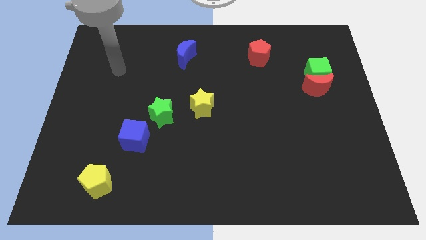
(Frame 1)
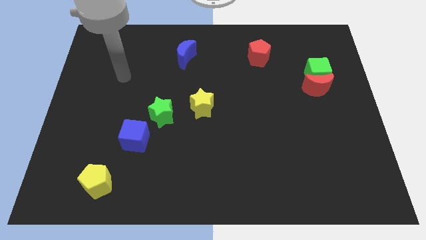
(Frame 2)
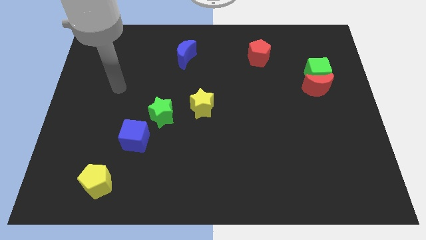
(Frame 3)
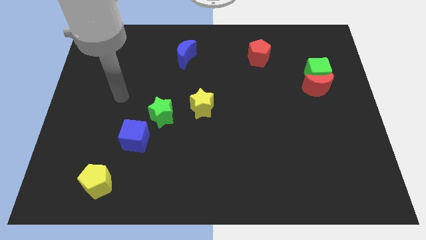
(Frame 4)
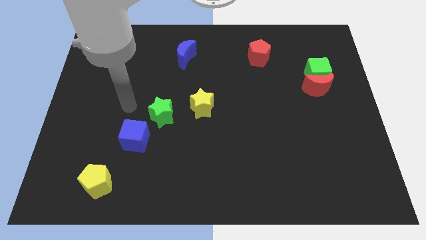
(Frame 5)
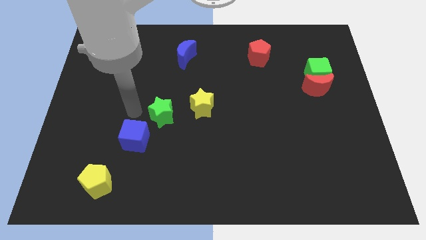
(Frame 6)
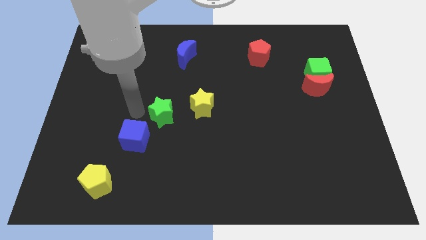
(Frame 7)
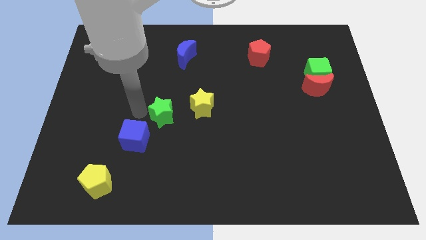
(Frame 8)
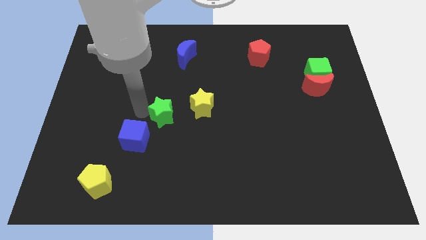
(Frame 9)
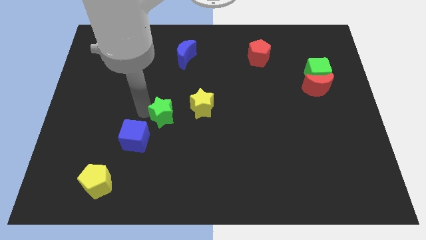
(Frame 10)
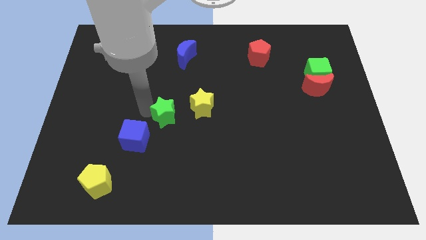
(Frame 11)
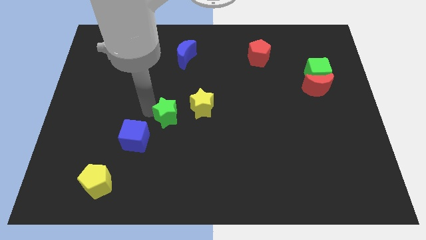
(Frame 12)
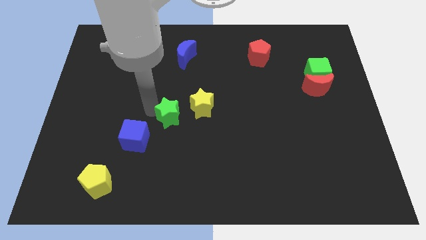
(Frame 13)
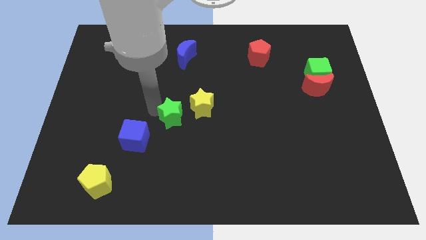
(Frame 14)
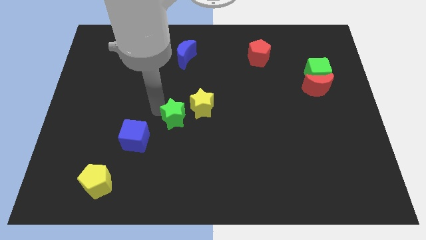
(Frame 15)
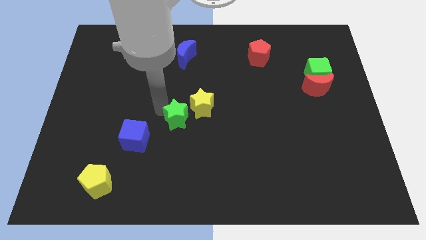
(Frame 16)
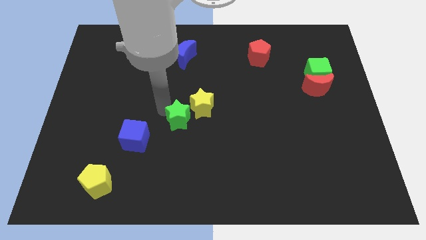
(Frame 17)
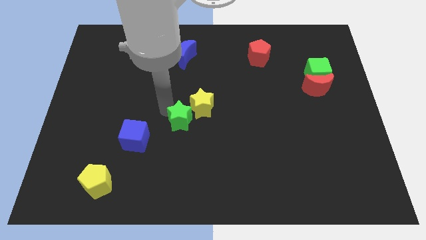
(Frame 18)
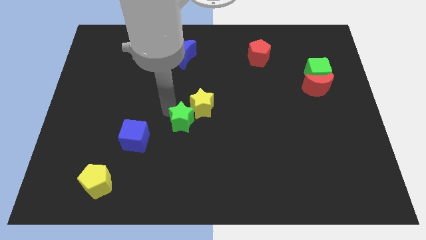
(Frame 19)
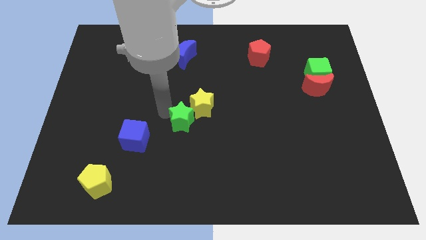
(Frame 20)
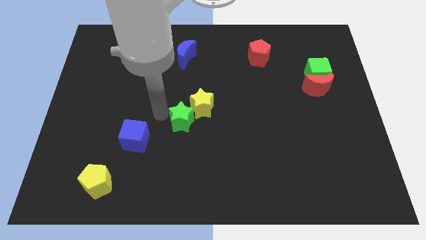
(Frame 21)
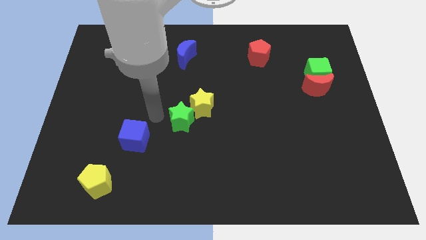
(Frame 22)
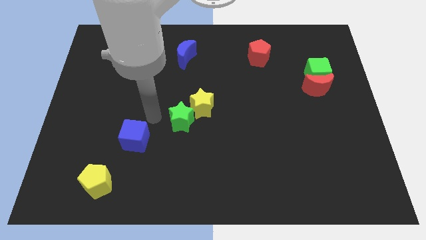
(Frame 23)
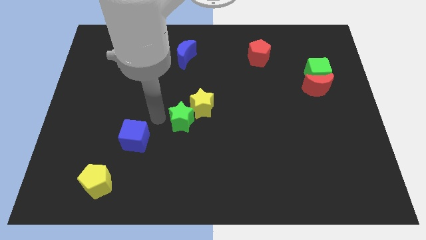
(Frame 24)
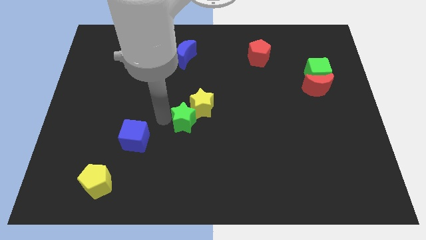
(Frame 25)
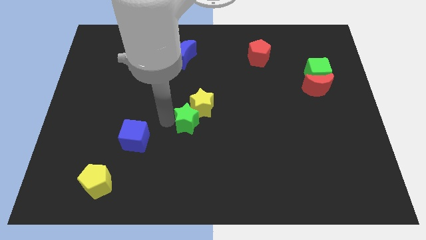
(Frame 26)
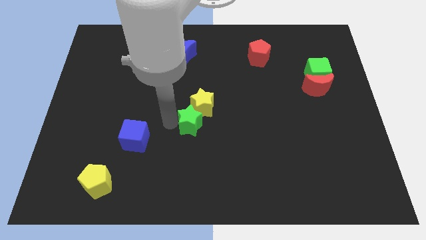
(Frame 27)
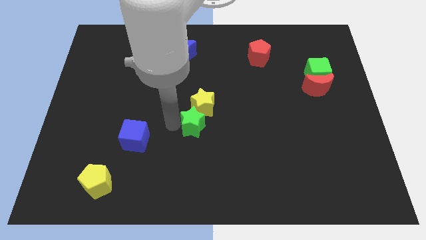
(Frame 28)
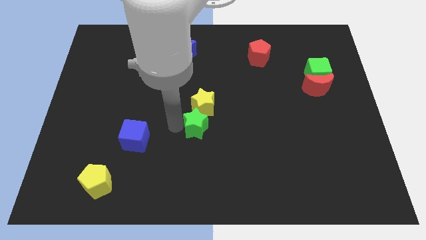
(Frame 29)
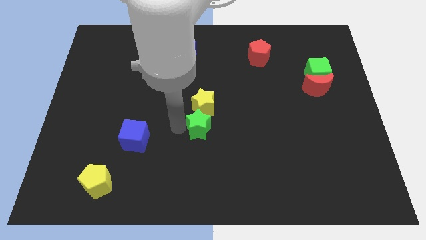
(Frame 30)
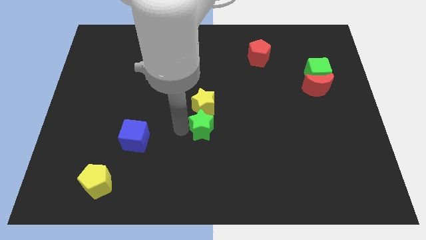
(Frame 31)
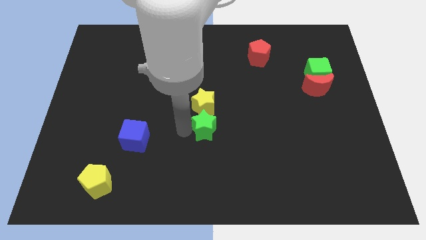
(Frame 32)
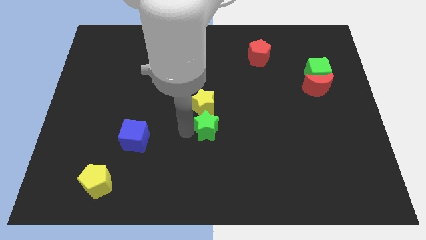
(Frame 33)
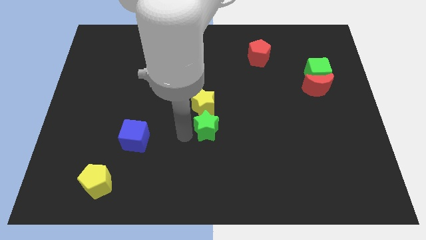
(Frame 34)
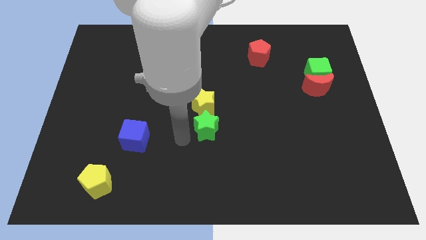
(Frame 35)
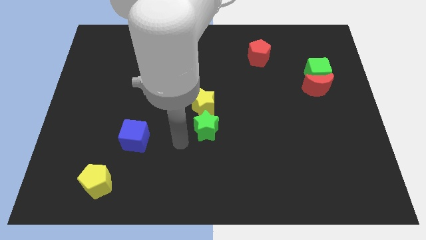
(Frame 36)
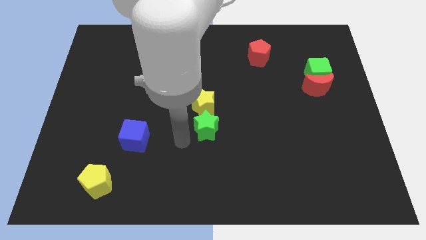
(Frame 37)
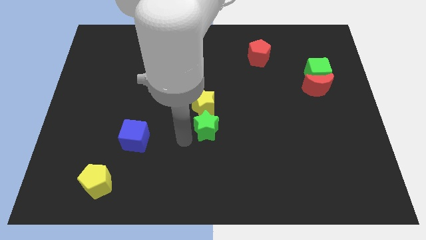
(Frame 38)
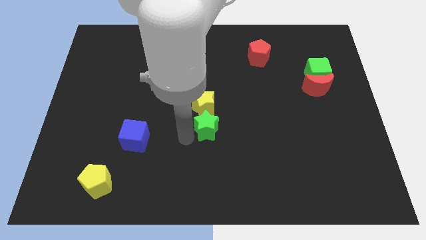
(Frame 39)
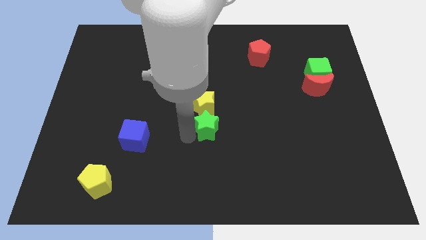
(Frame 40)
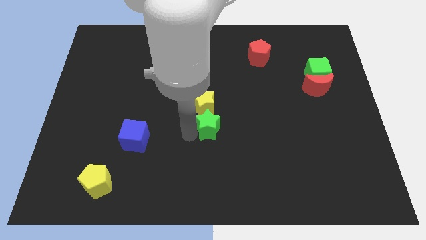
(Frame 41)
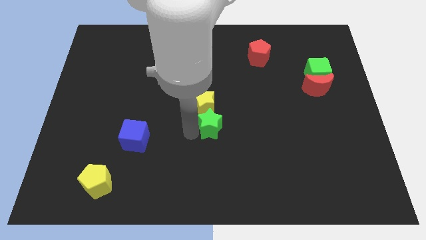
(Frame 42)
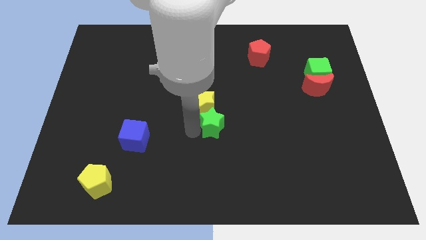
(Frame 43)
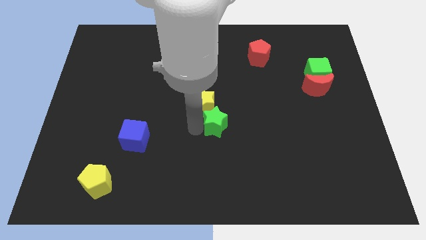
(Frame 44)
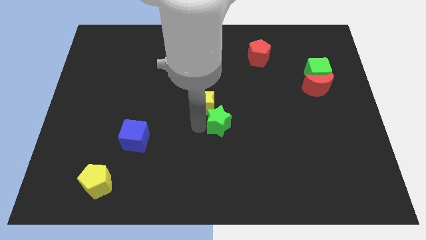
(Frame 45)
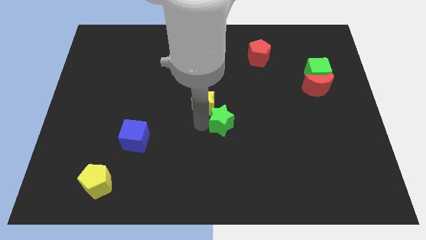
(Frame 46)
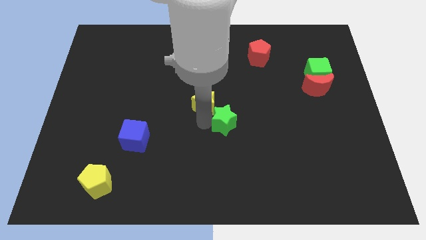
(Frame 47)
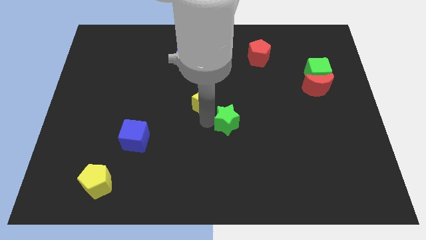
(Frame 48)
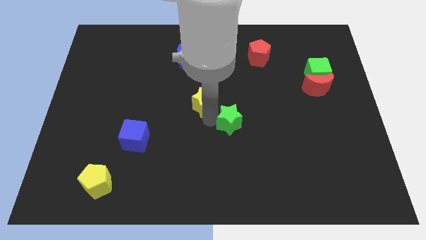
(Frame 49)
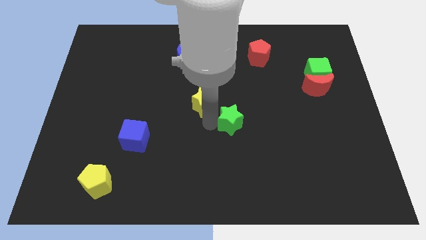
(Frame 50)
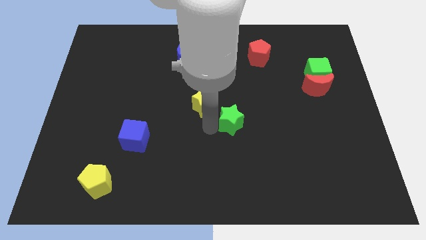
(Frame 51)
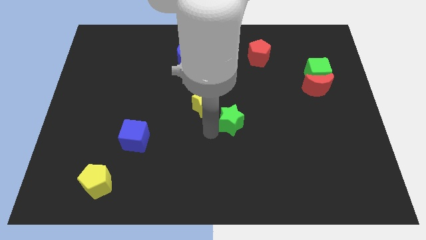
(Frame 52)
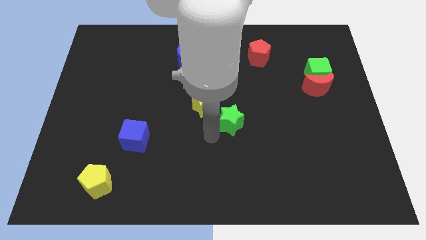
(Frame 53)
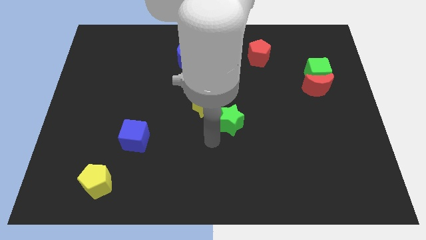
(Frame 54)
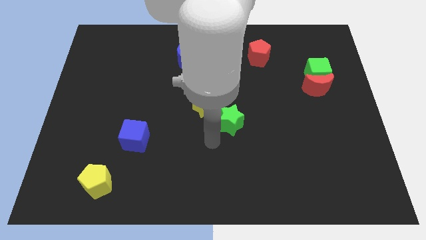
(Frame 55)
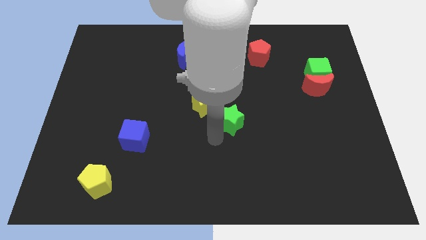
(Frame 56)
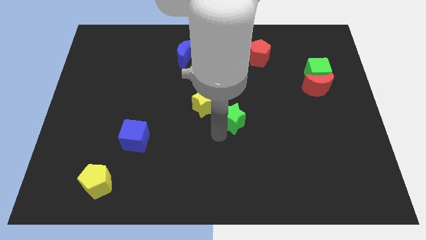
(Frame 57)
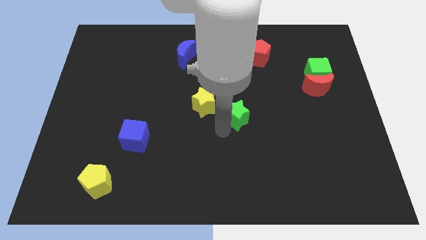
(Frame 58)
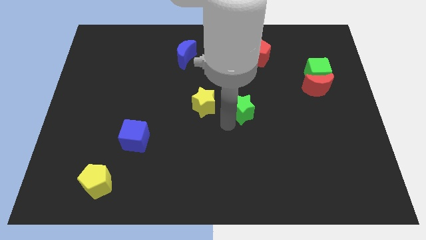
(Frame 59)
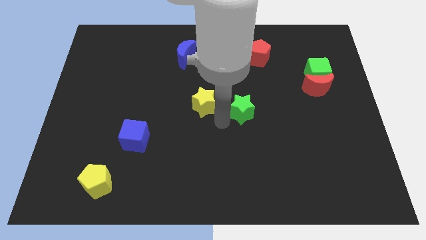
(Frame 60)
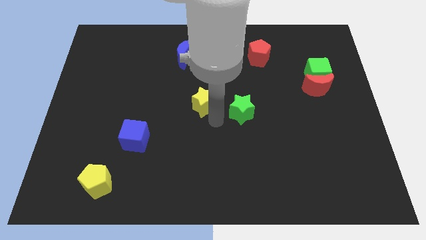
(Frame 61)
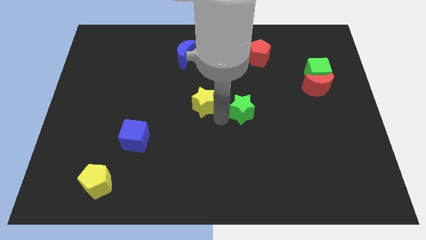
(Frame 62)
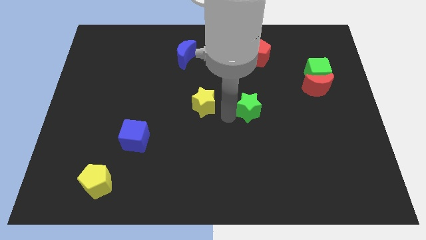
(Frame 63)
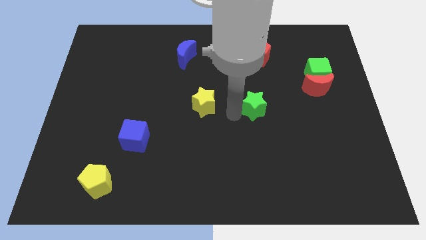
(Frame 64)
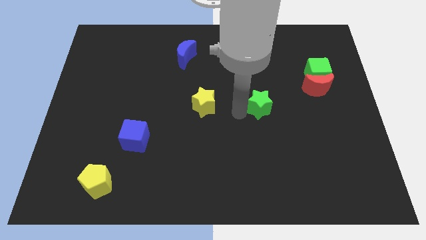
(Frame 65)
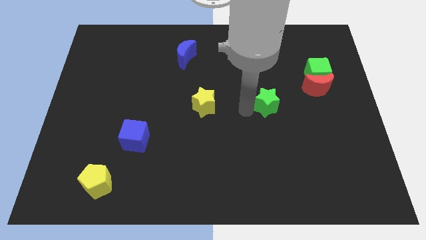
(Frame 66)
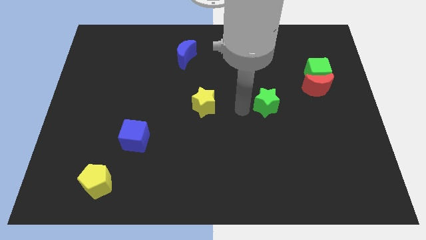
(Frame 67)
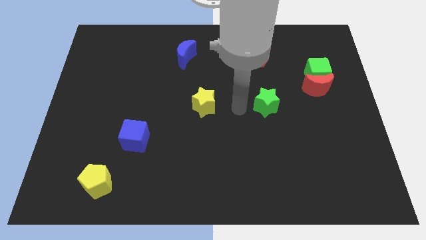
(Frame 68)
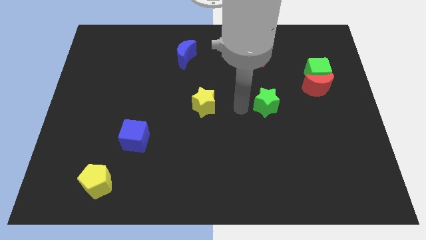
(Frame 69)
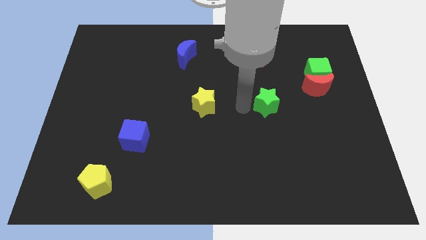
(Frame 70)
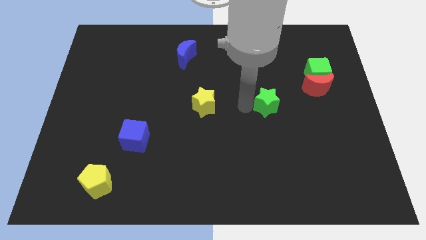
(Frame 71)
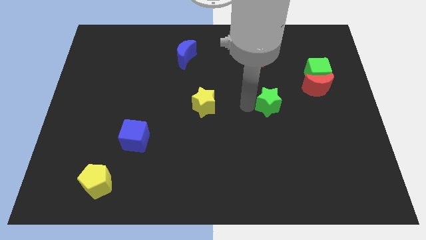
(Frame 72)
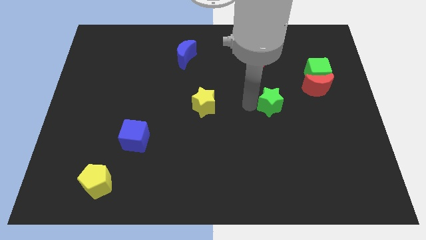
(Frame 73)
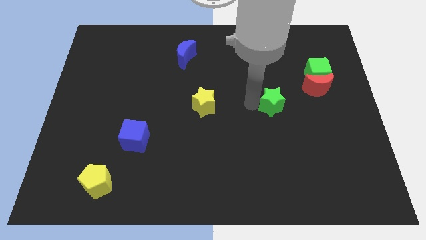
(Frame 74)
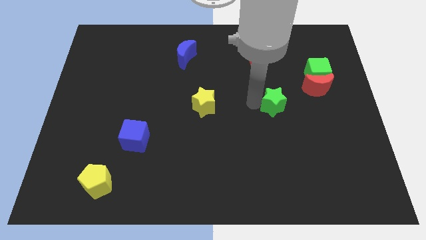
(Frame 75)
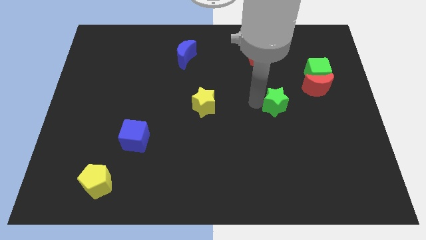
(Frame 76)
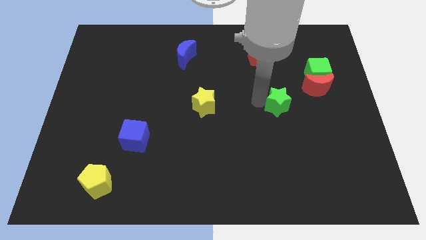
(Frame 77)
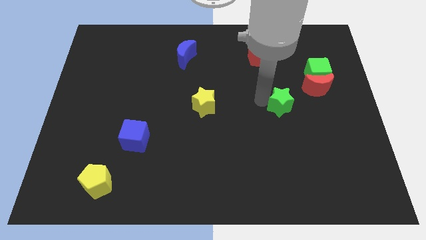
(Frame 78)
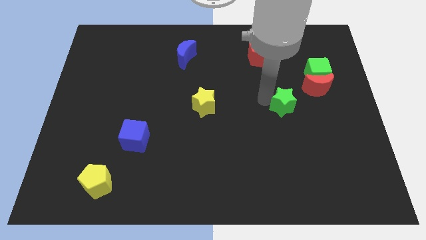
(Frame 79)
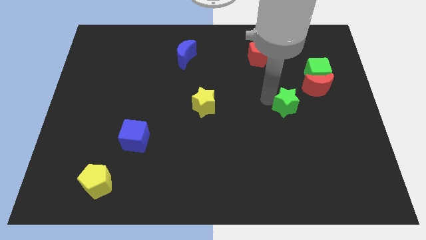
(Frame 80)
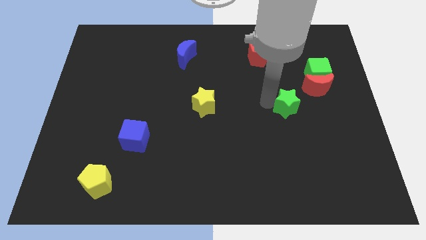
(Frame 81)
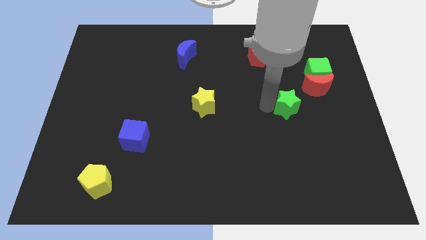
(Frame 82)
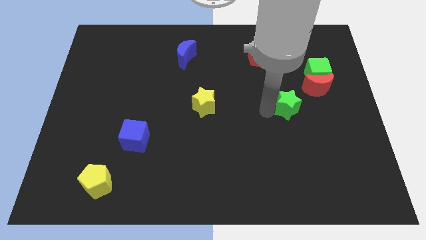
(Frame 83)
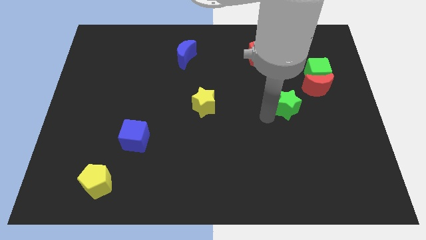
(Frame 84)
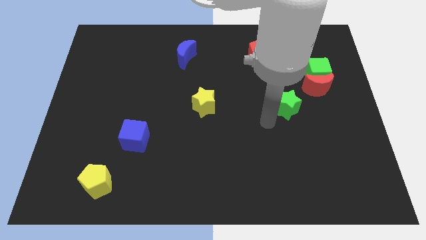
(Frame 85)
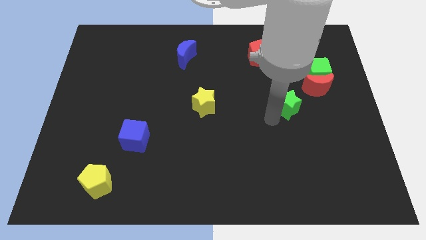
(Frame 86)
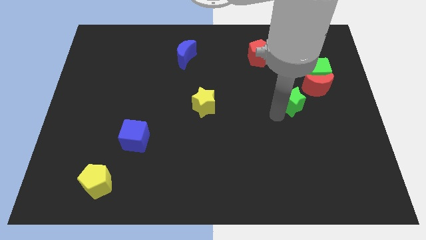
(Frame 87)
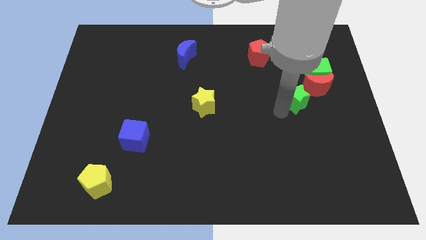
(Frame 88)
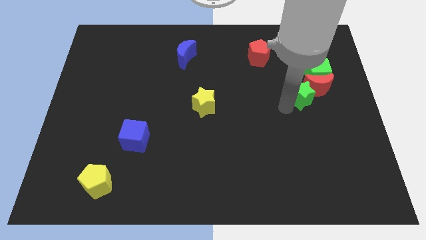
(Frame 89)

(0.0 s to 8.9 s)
slide the green star to the red moon
